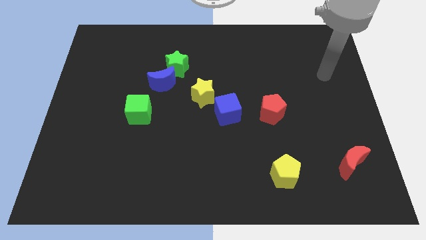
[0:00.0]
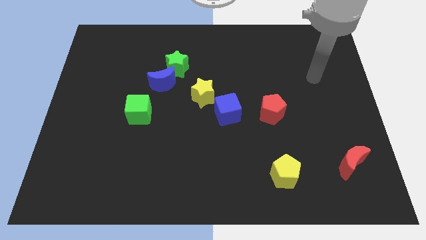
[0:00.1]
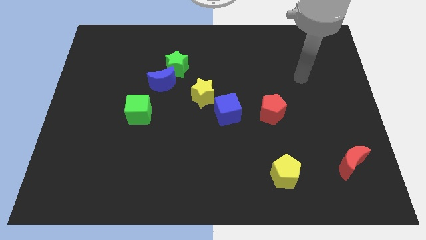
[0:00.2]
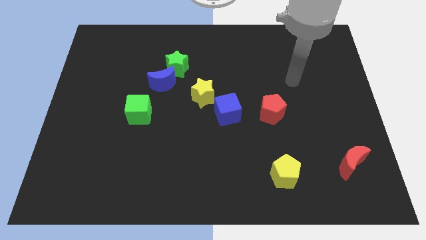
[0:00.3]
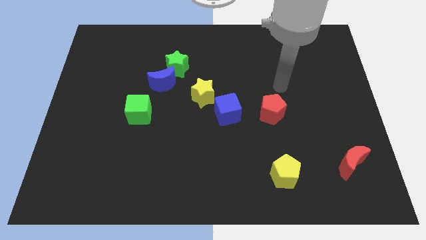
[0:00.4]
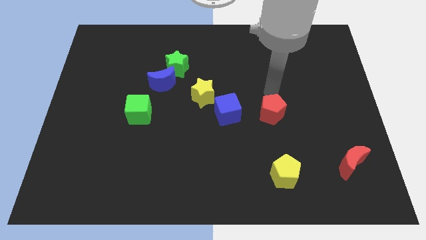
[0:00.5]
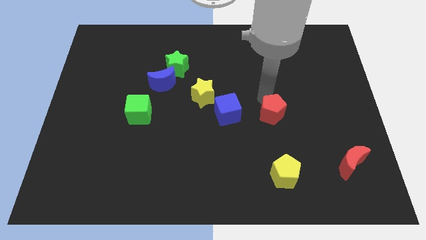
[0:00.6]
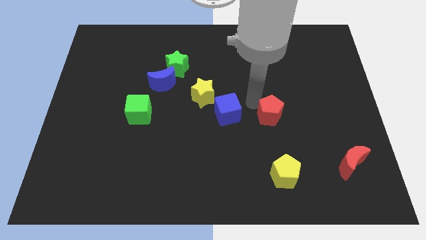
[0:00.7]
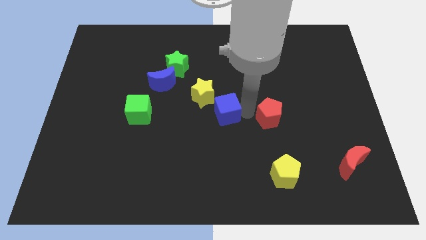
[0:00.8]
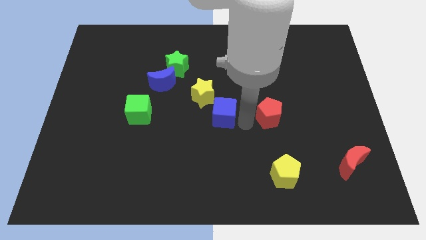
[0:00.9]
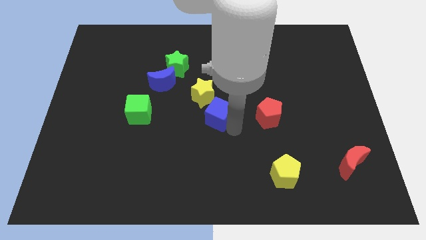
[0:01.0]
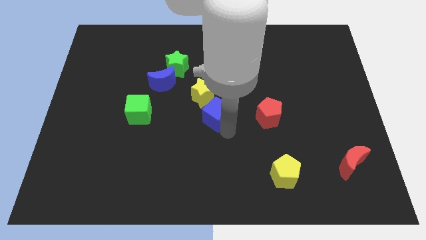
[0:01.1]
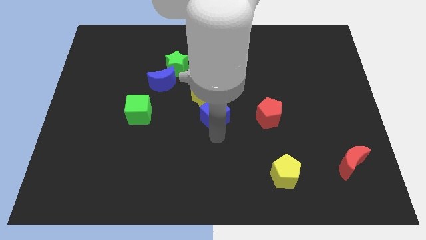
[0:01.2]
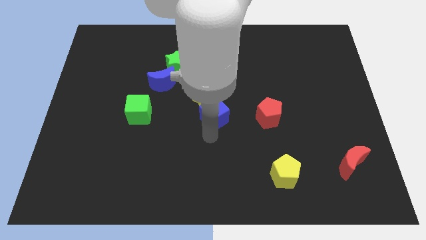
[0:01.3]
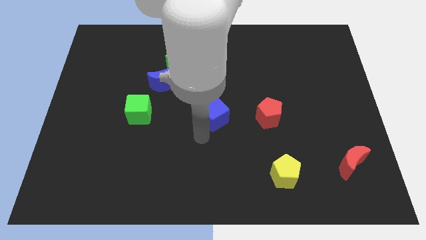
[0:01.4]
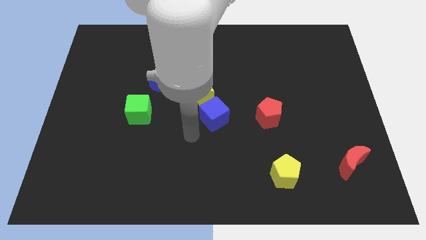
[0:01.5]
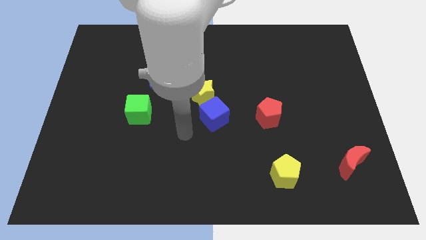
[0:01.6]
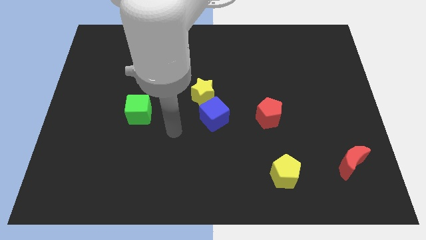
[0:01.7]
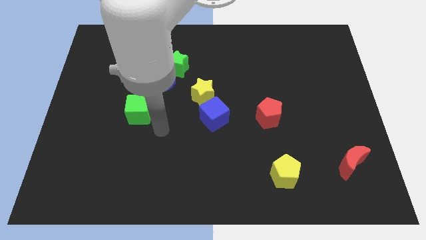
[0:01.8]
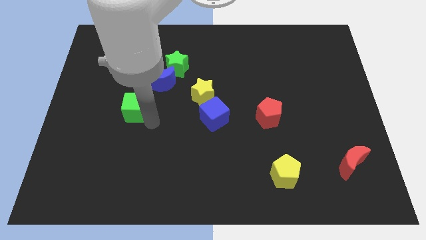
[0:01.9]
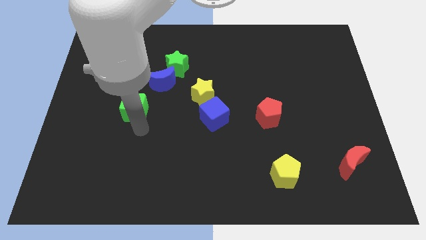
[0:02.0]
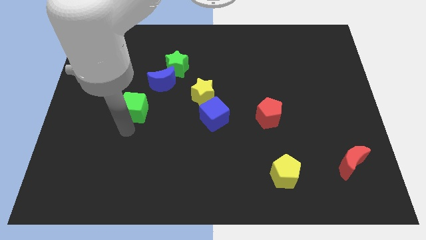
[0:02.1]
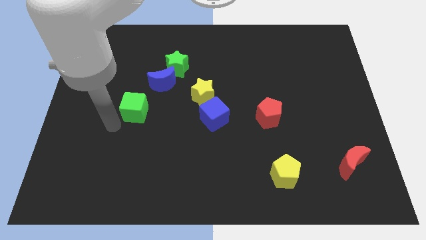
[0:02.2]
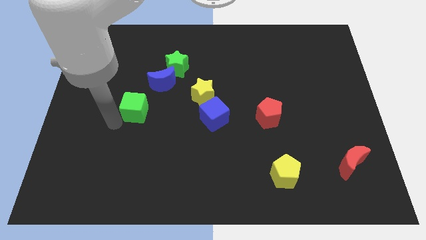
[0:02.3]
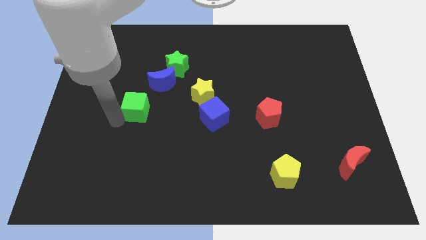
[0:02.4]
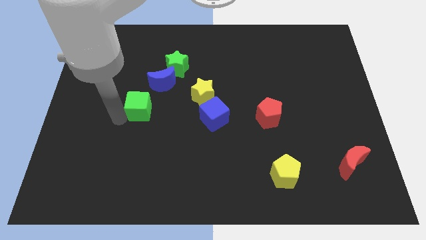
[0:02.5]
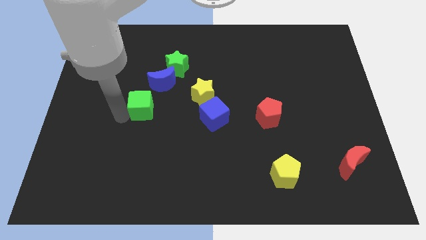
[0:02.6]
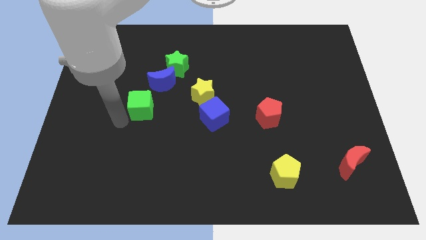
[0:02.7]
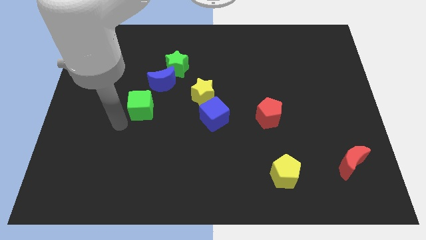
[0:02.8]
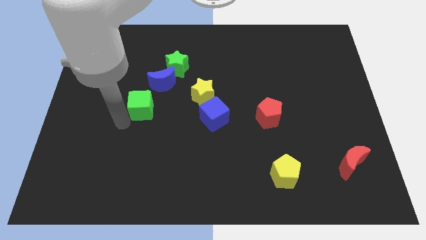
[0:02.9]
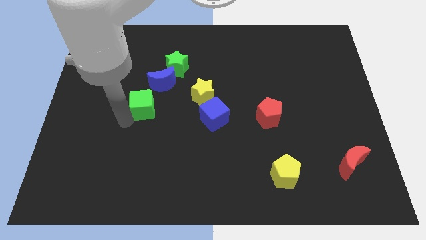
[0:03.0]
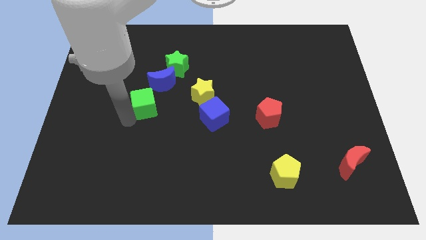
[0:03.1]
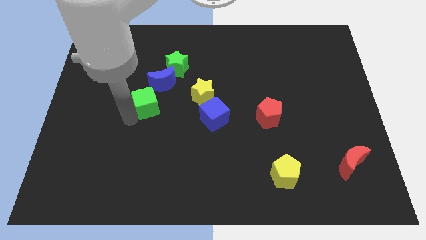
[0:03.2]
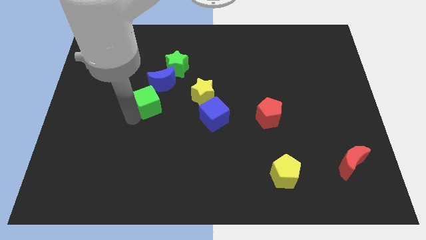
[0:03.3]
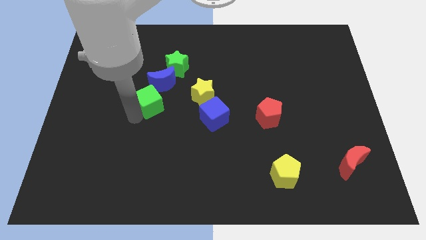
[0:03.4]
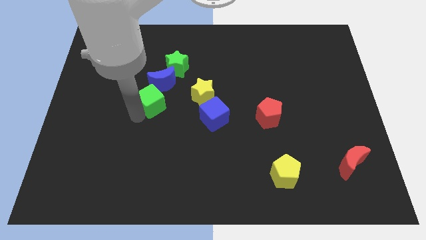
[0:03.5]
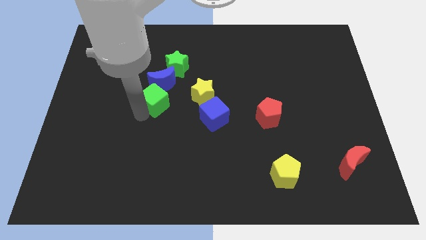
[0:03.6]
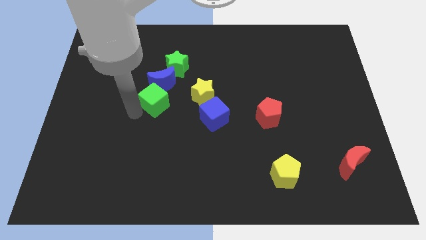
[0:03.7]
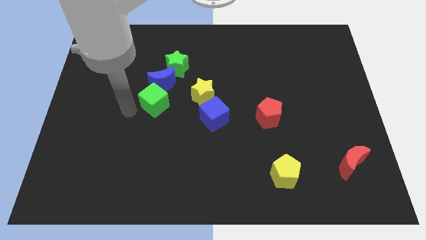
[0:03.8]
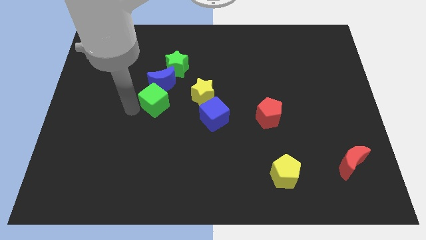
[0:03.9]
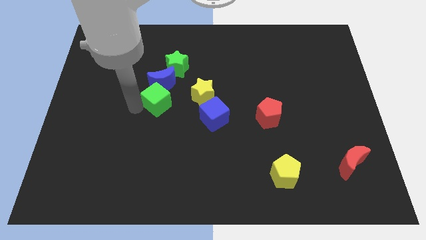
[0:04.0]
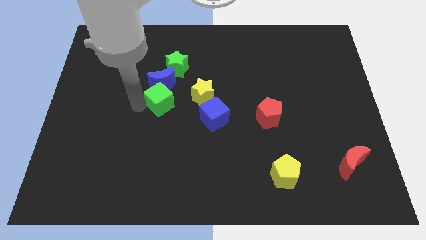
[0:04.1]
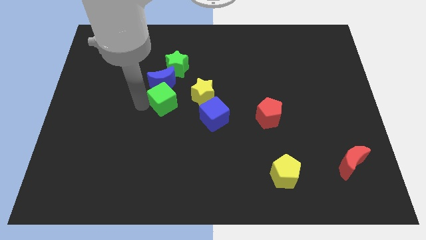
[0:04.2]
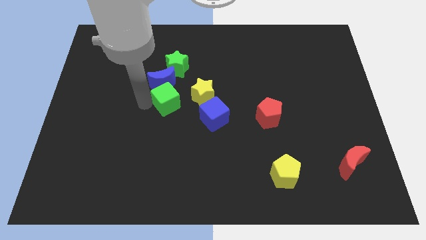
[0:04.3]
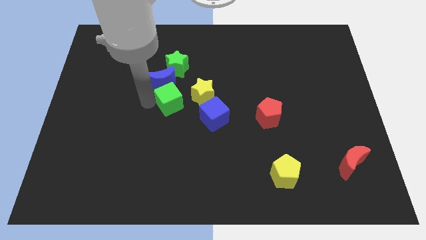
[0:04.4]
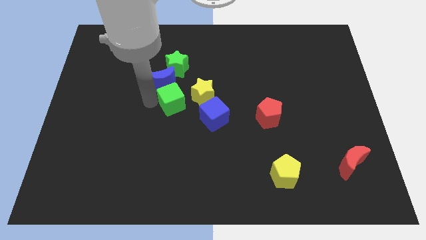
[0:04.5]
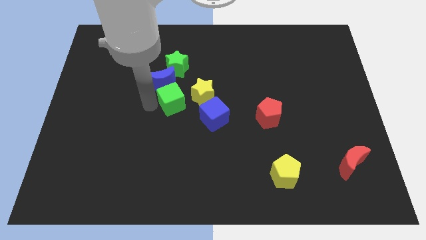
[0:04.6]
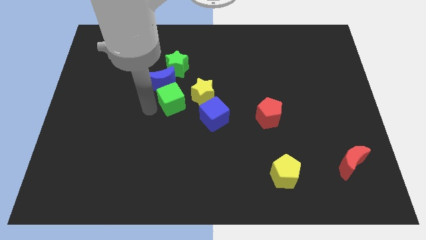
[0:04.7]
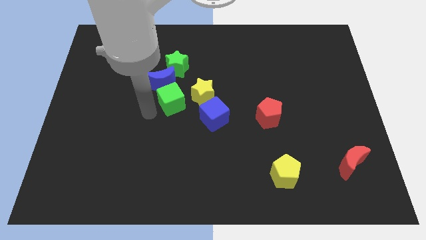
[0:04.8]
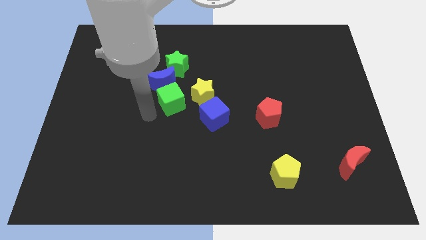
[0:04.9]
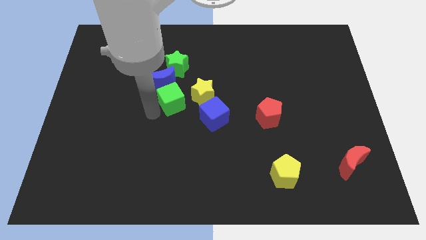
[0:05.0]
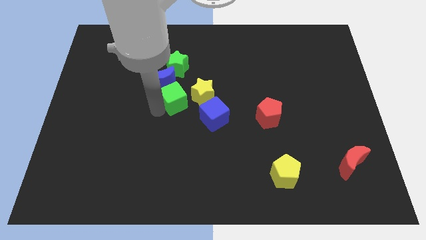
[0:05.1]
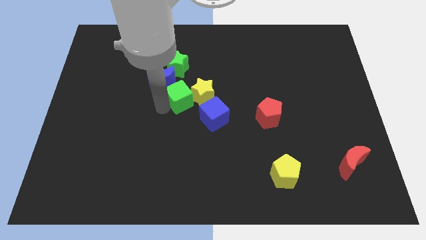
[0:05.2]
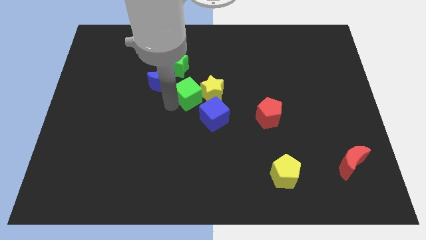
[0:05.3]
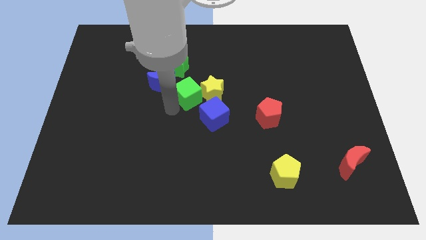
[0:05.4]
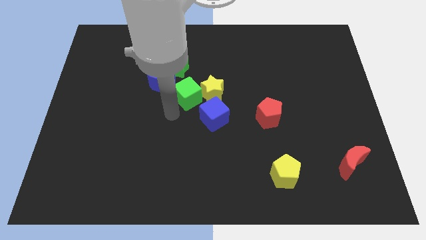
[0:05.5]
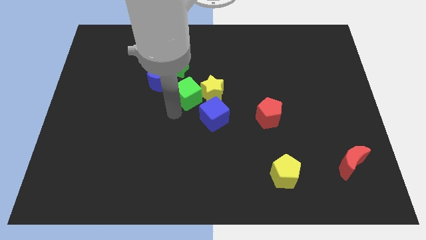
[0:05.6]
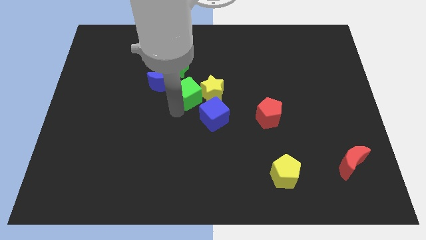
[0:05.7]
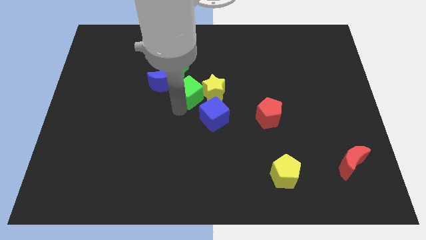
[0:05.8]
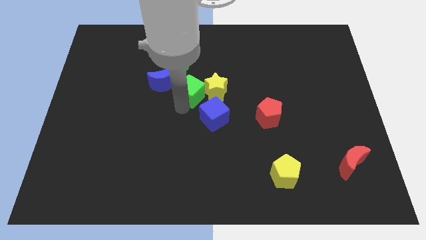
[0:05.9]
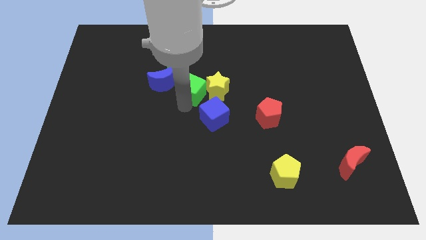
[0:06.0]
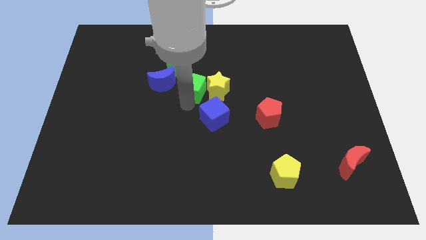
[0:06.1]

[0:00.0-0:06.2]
move the green cube to the top side of the blue cube

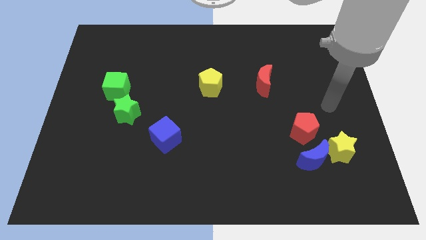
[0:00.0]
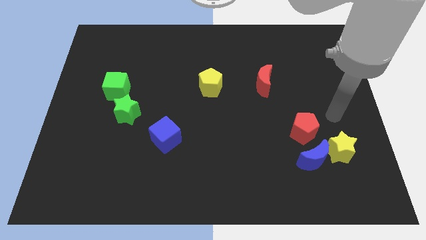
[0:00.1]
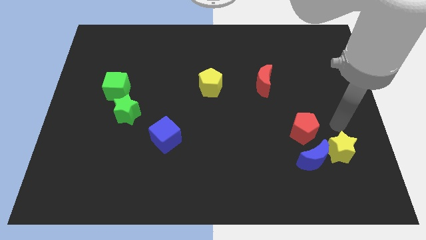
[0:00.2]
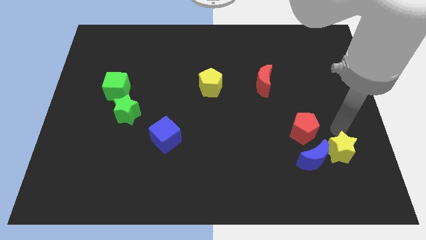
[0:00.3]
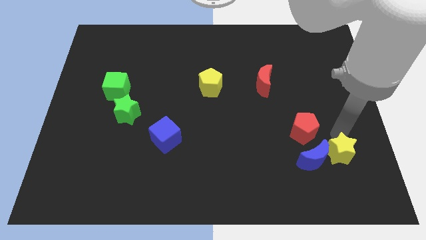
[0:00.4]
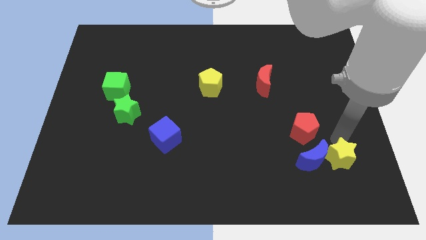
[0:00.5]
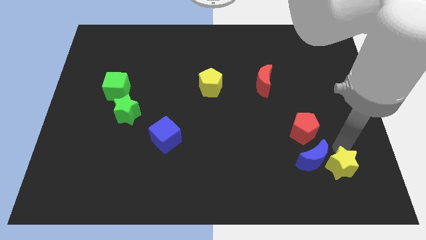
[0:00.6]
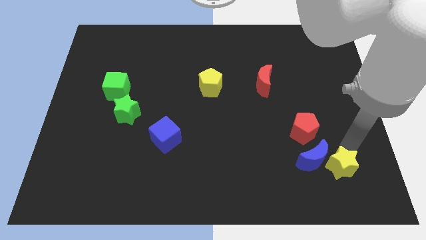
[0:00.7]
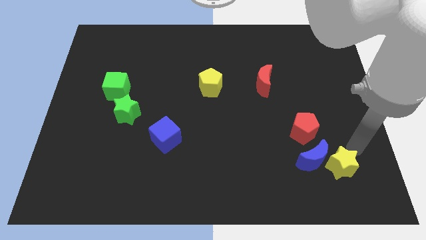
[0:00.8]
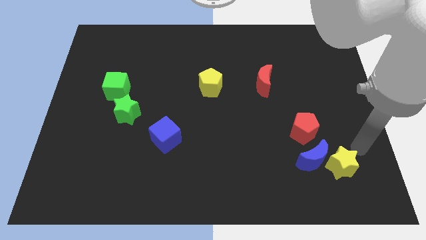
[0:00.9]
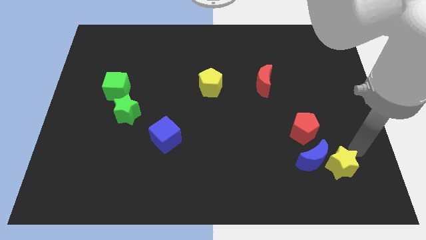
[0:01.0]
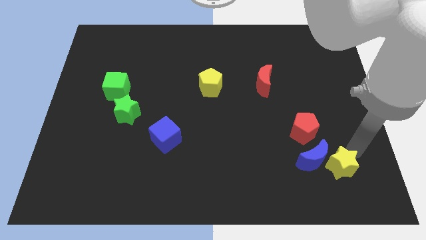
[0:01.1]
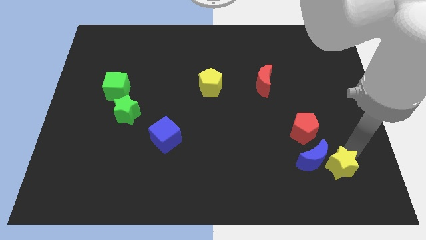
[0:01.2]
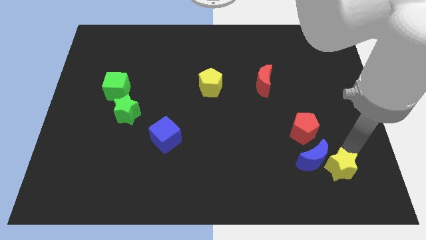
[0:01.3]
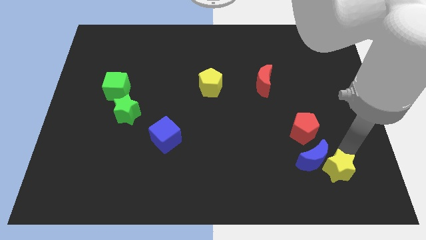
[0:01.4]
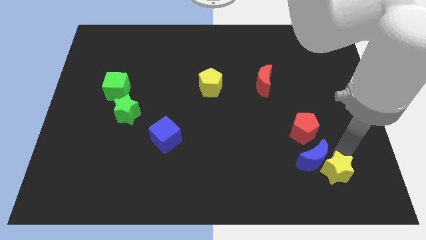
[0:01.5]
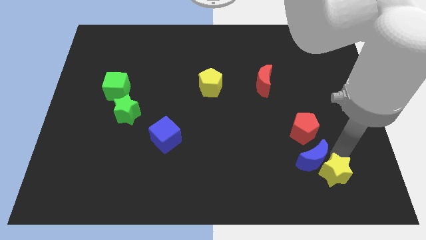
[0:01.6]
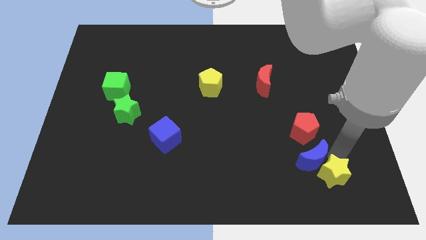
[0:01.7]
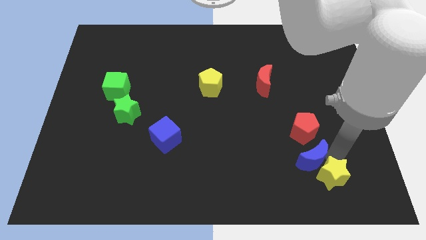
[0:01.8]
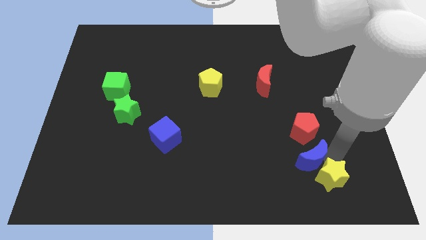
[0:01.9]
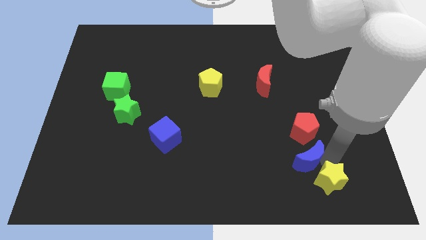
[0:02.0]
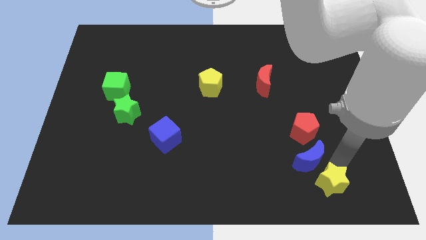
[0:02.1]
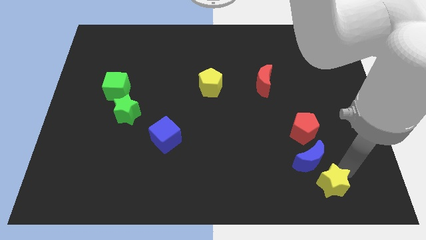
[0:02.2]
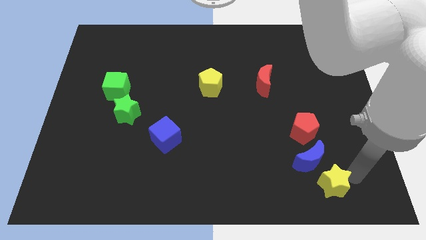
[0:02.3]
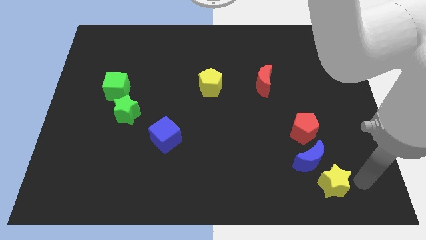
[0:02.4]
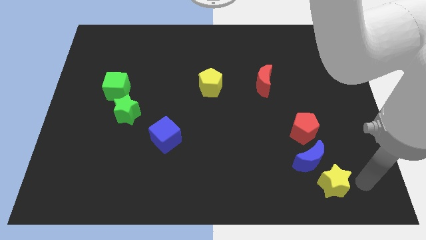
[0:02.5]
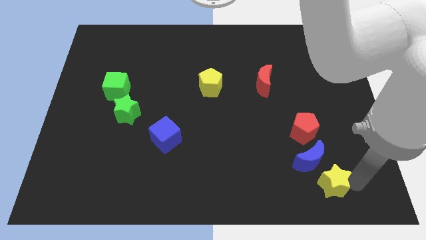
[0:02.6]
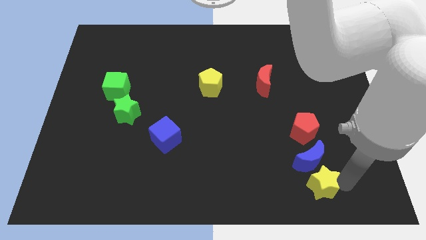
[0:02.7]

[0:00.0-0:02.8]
move the yellow star diagonally down and to the left of the blue moon
